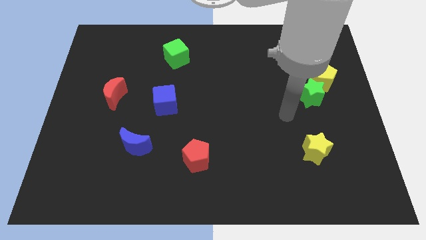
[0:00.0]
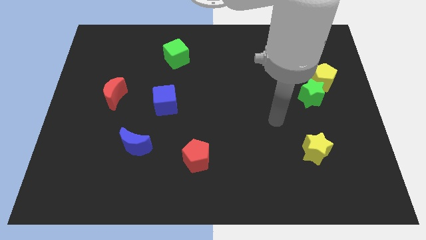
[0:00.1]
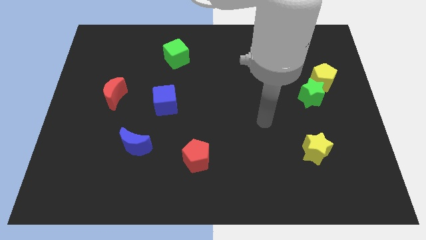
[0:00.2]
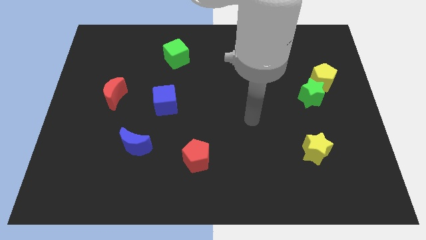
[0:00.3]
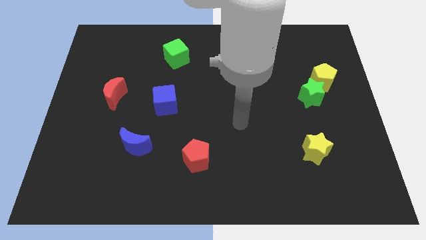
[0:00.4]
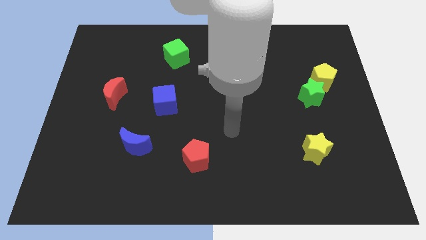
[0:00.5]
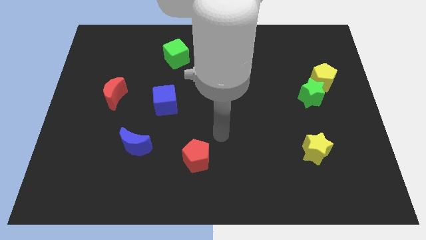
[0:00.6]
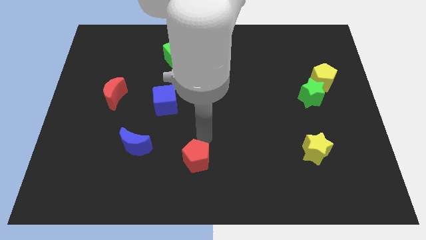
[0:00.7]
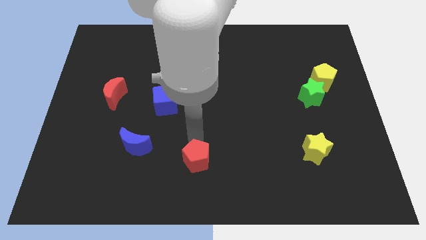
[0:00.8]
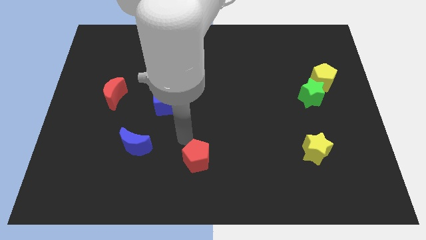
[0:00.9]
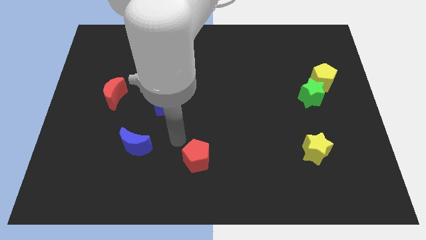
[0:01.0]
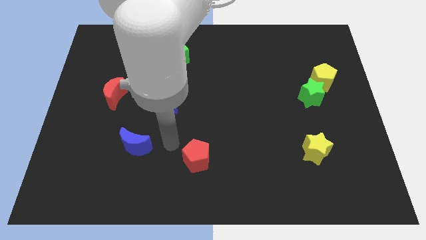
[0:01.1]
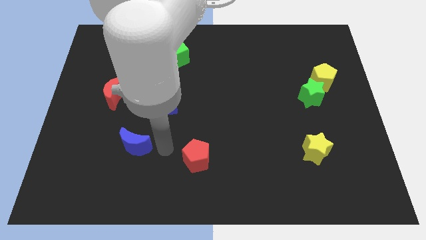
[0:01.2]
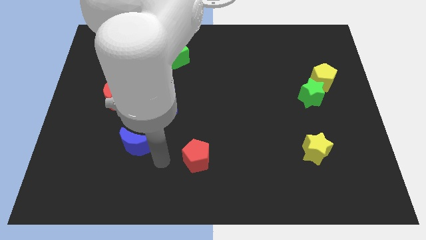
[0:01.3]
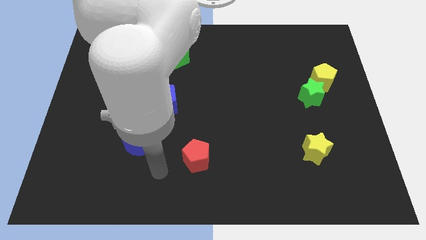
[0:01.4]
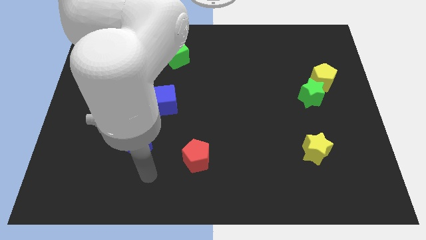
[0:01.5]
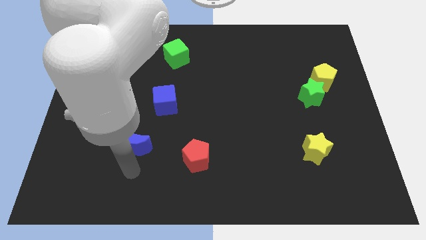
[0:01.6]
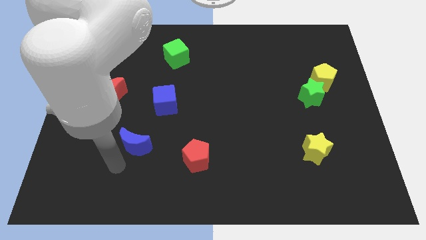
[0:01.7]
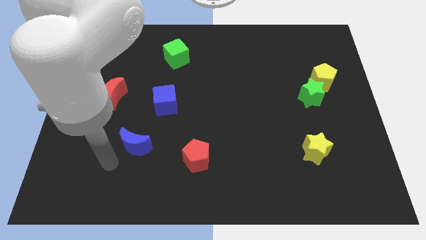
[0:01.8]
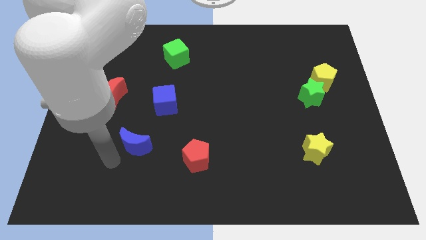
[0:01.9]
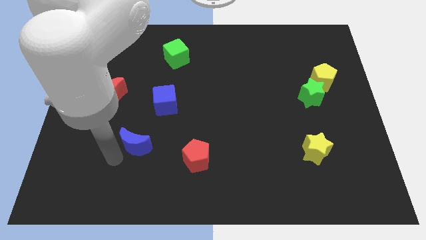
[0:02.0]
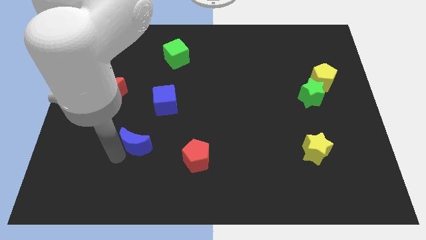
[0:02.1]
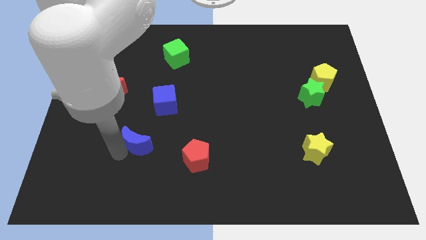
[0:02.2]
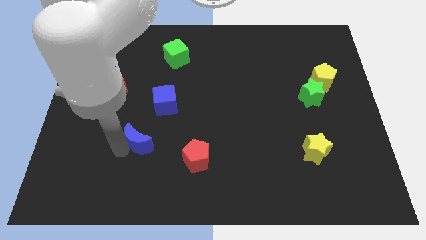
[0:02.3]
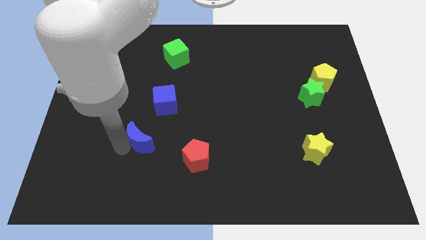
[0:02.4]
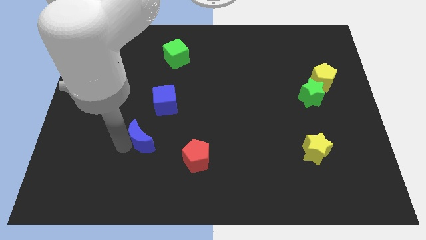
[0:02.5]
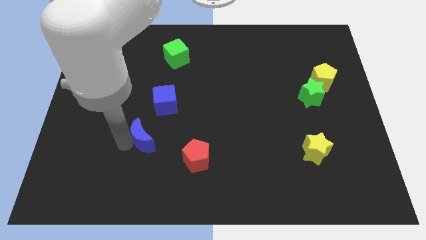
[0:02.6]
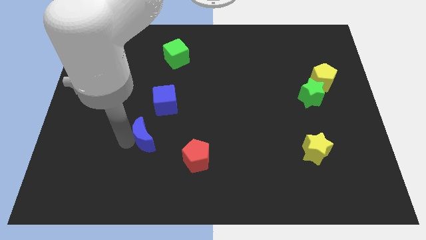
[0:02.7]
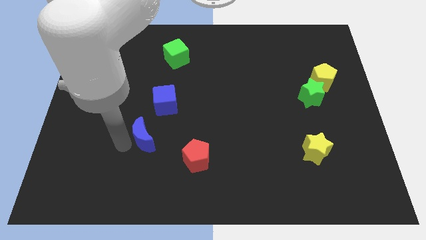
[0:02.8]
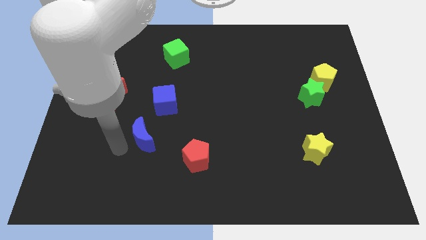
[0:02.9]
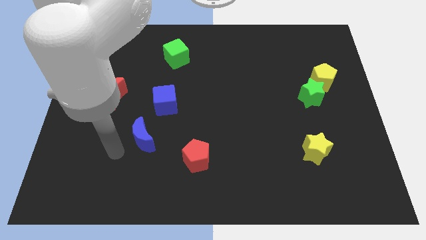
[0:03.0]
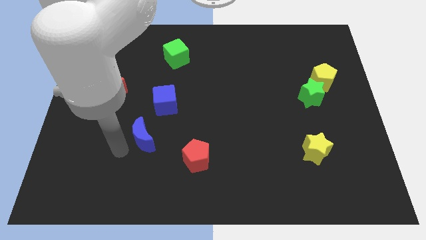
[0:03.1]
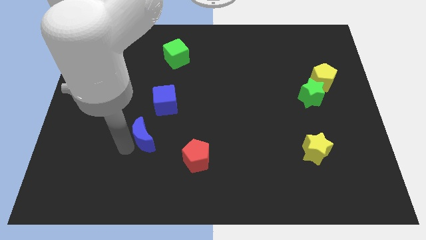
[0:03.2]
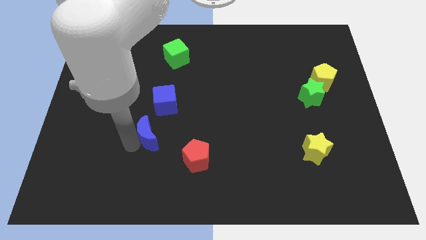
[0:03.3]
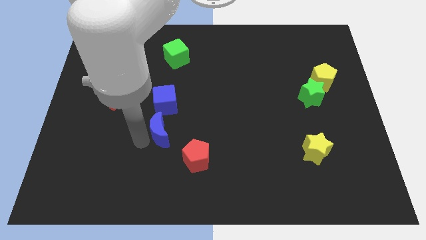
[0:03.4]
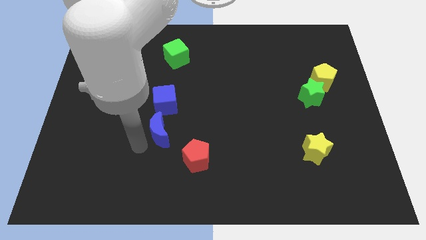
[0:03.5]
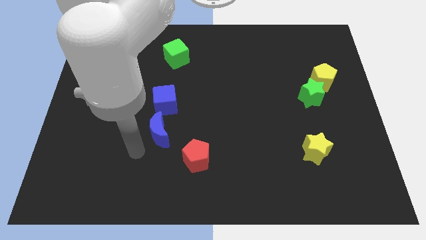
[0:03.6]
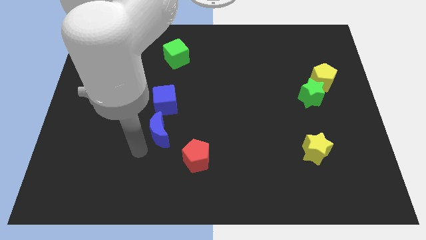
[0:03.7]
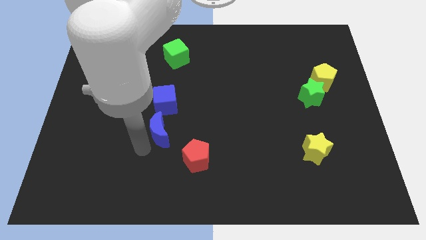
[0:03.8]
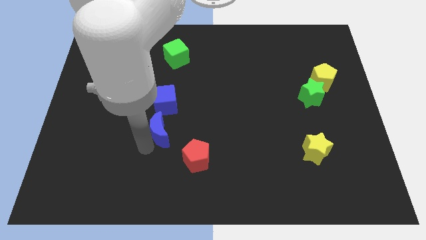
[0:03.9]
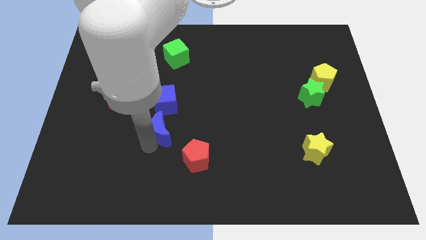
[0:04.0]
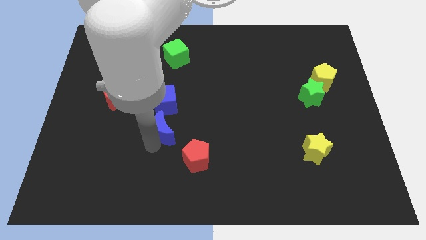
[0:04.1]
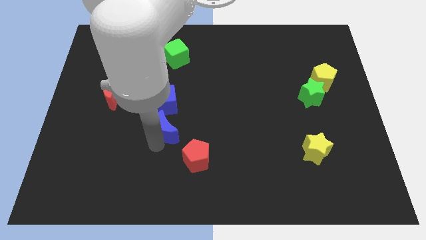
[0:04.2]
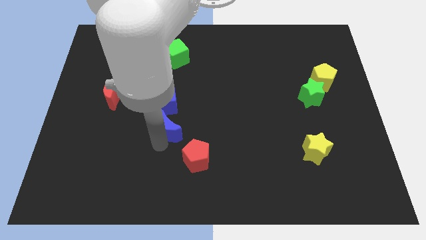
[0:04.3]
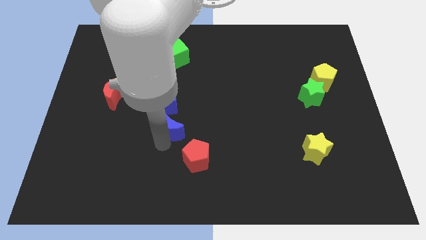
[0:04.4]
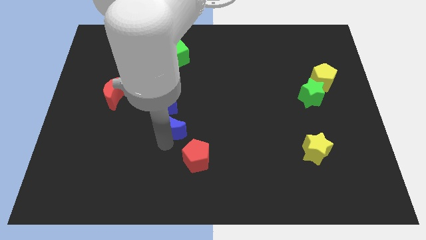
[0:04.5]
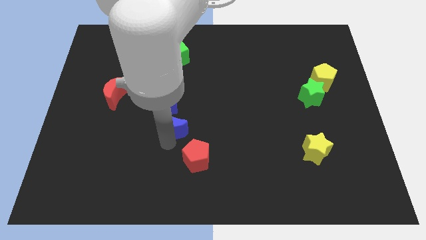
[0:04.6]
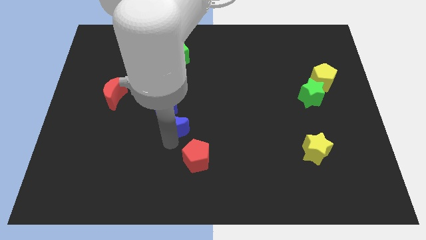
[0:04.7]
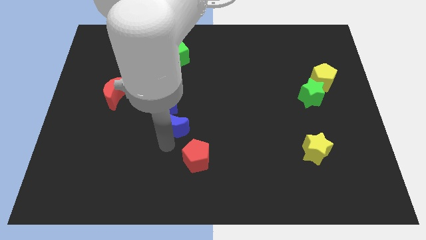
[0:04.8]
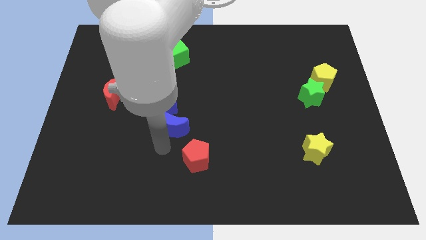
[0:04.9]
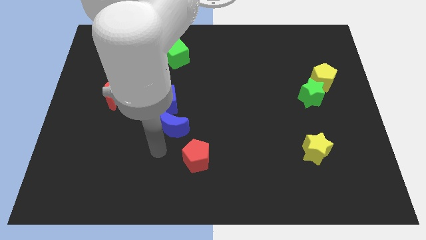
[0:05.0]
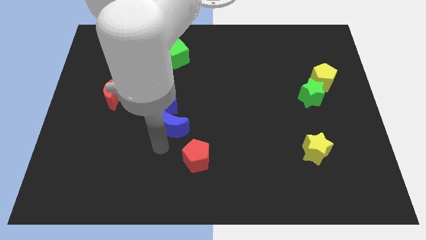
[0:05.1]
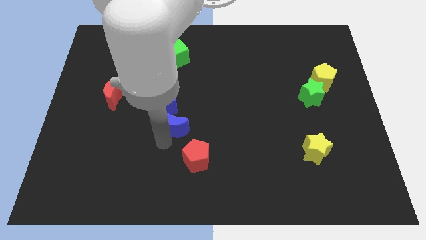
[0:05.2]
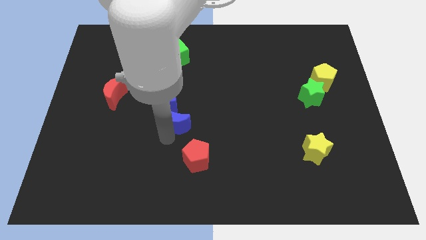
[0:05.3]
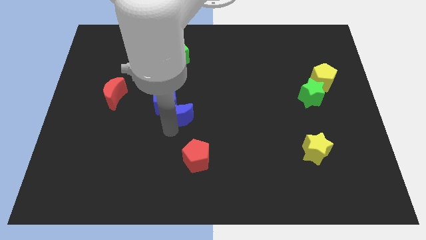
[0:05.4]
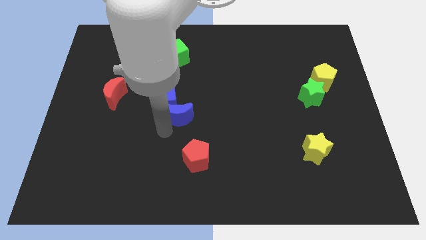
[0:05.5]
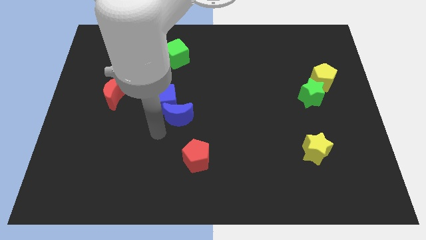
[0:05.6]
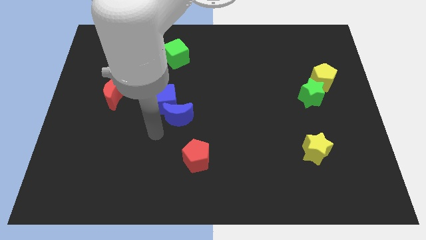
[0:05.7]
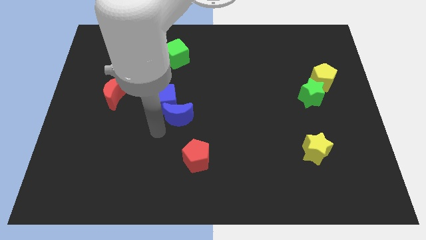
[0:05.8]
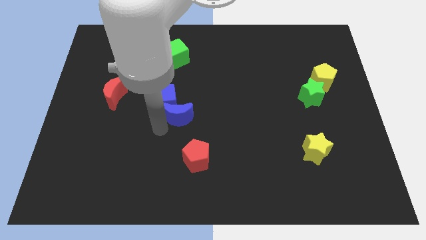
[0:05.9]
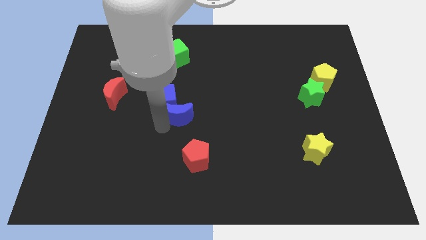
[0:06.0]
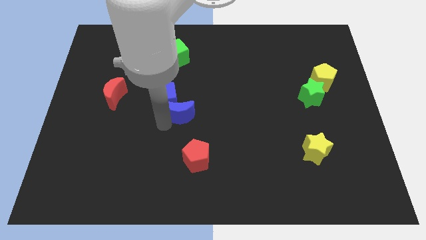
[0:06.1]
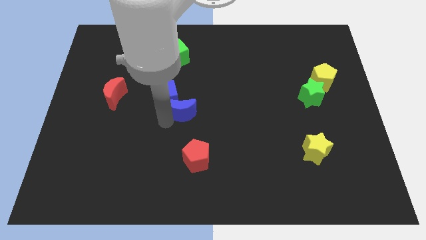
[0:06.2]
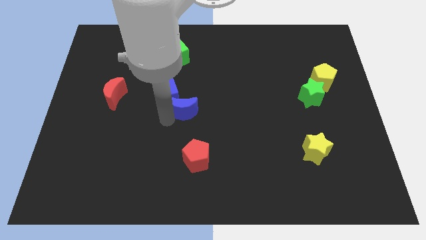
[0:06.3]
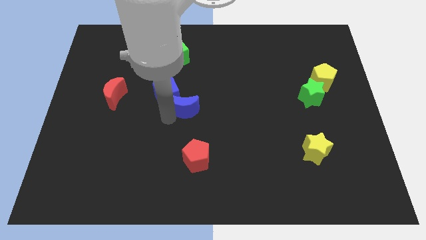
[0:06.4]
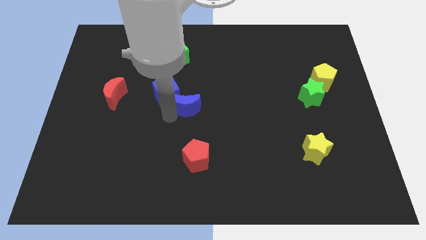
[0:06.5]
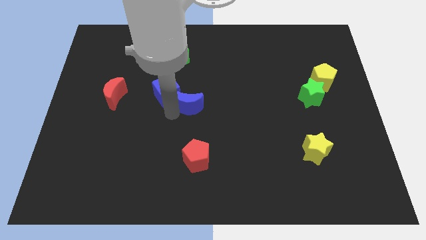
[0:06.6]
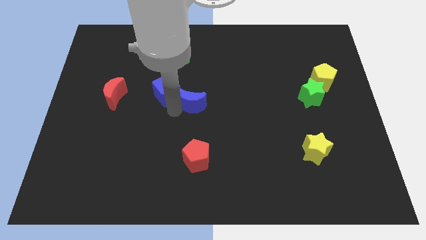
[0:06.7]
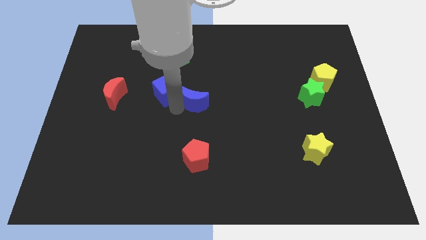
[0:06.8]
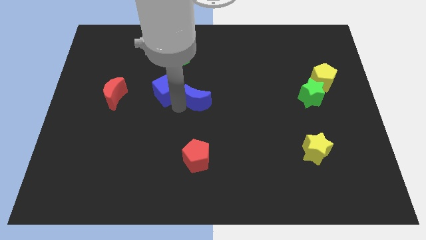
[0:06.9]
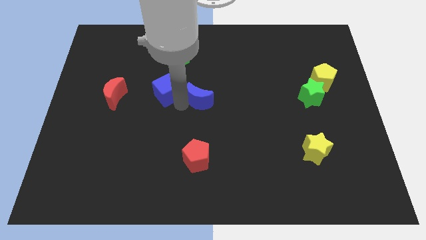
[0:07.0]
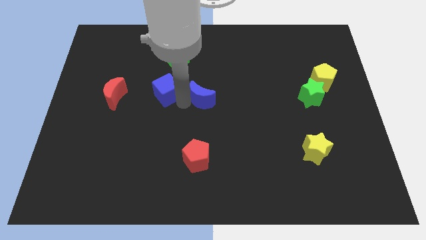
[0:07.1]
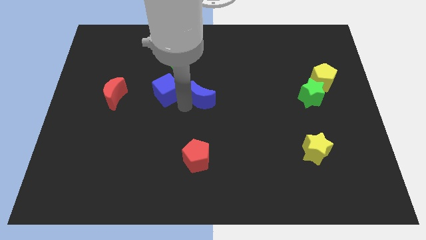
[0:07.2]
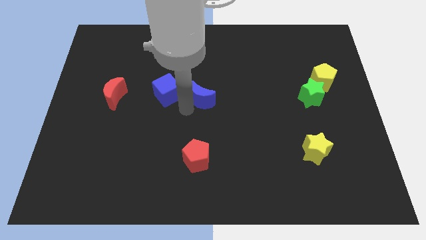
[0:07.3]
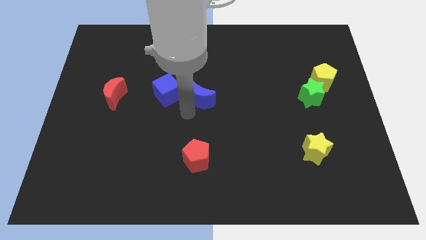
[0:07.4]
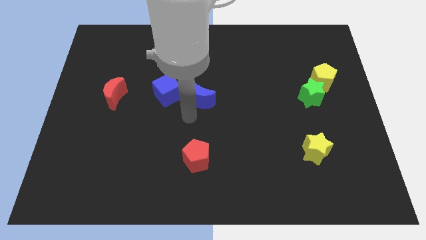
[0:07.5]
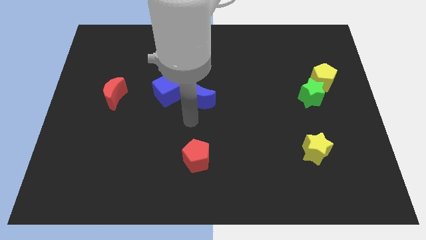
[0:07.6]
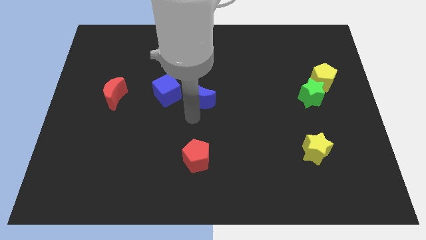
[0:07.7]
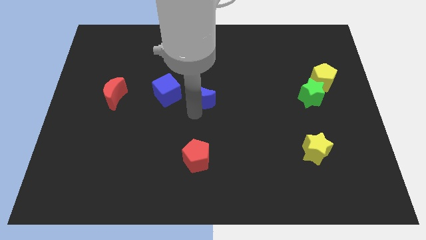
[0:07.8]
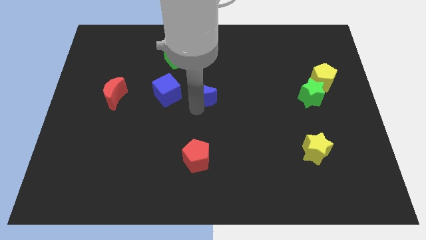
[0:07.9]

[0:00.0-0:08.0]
push the blue moon diagonally up and right
